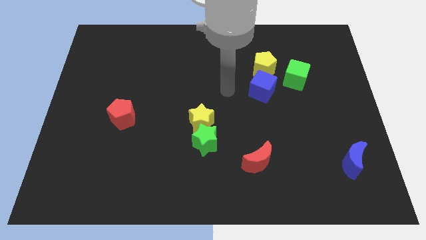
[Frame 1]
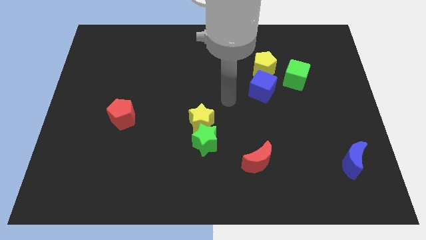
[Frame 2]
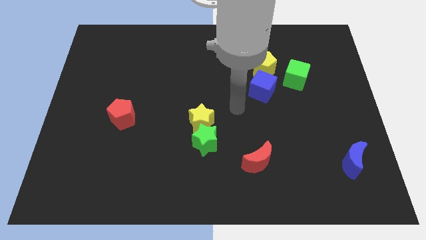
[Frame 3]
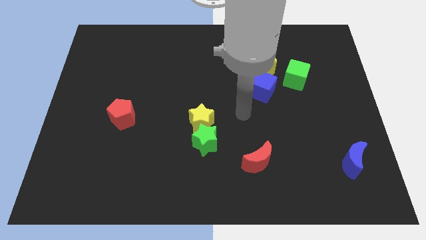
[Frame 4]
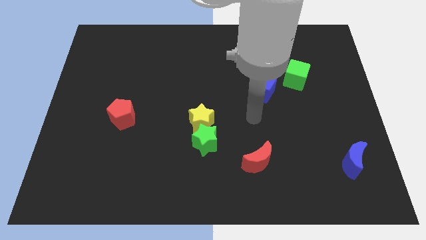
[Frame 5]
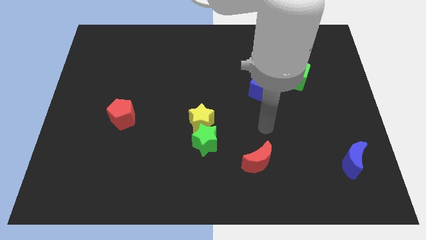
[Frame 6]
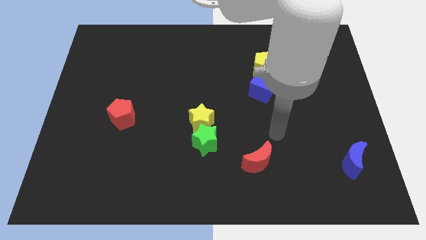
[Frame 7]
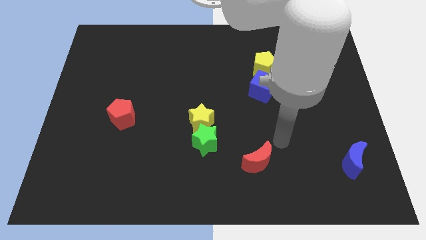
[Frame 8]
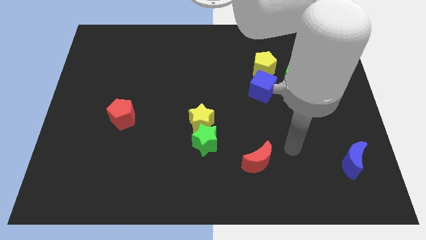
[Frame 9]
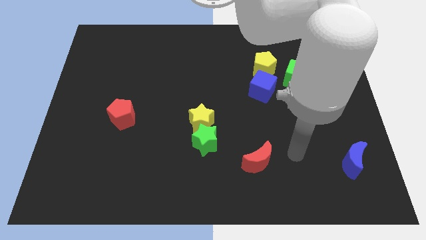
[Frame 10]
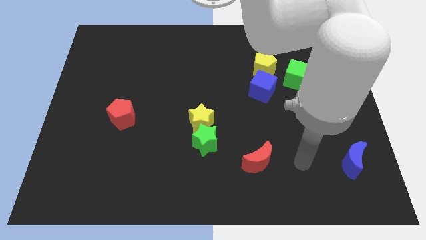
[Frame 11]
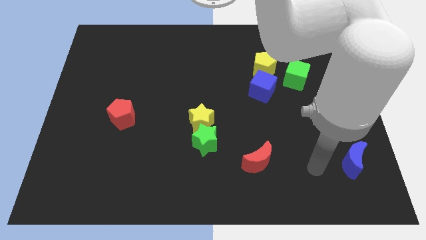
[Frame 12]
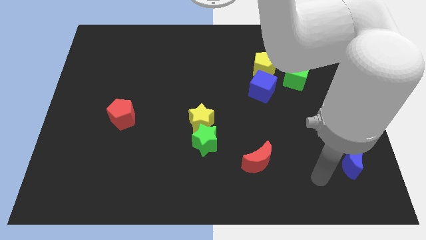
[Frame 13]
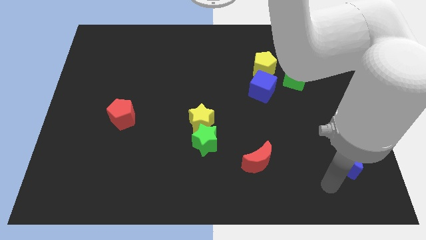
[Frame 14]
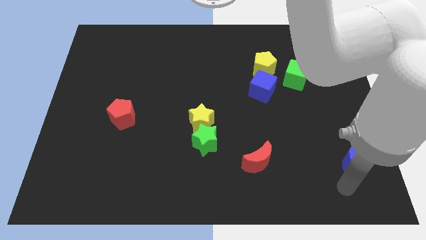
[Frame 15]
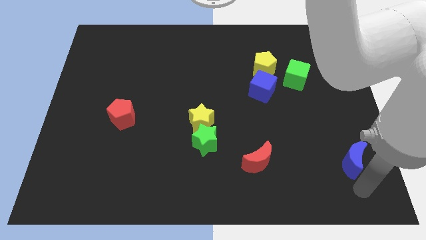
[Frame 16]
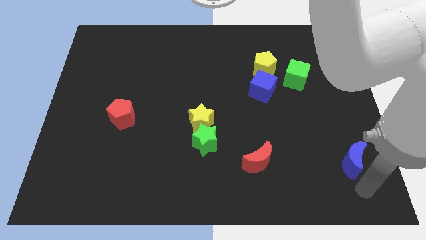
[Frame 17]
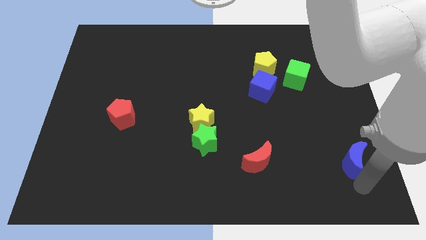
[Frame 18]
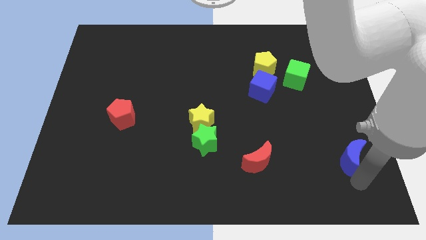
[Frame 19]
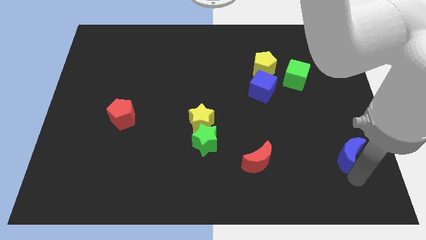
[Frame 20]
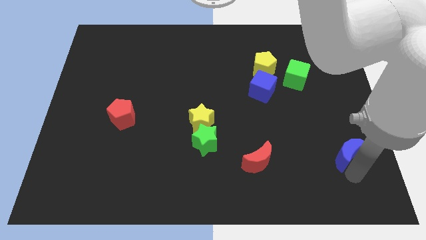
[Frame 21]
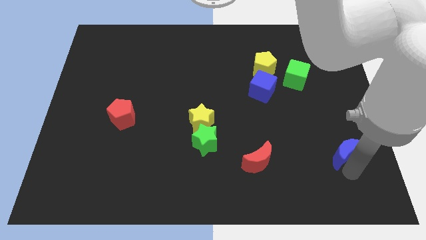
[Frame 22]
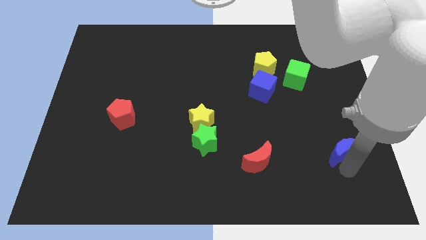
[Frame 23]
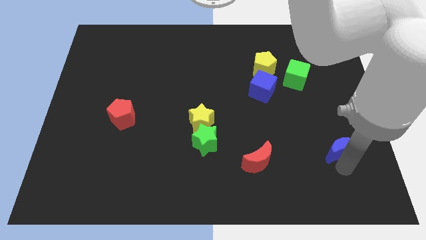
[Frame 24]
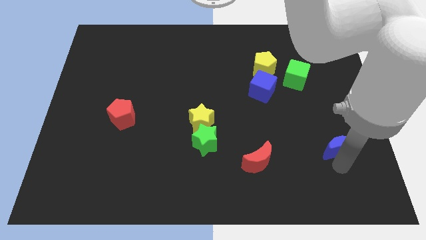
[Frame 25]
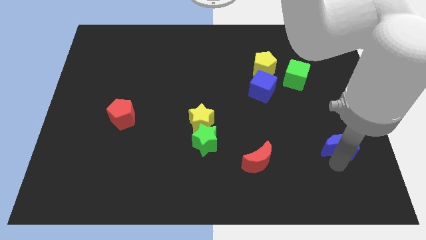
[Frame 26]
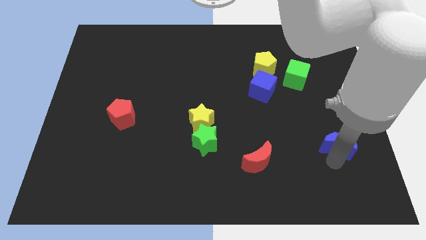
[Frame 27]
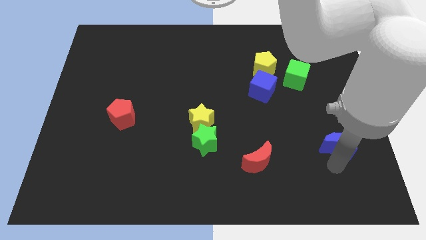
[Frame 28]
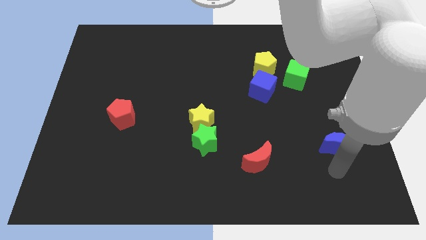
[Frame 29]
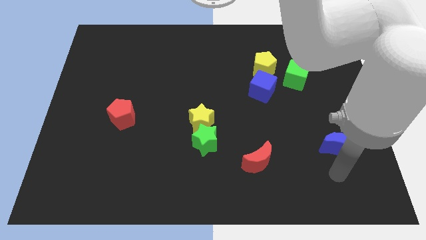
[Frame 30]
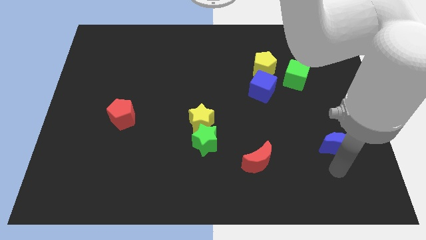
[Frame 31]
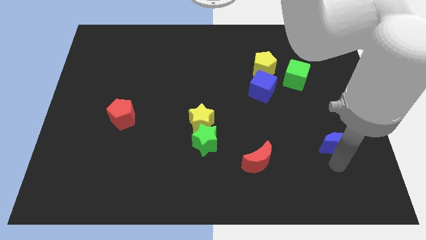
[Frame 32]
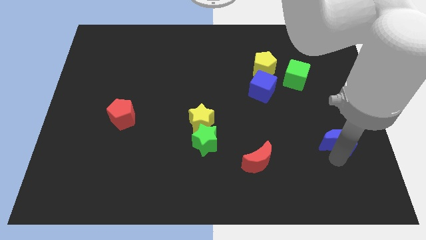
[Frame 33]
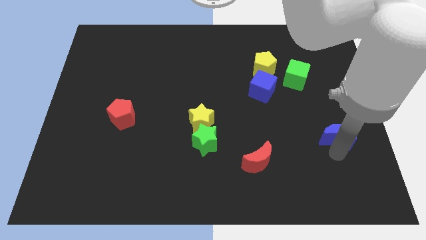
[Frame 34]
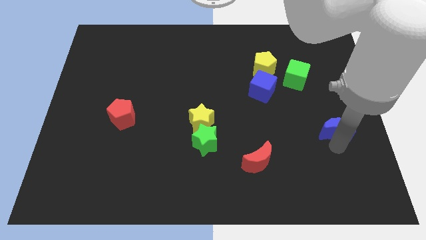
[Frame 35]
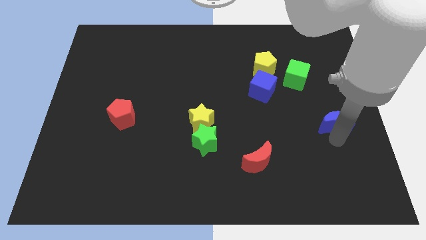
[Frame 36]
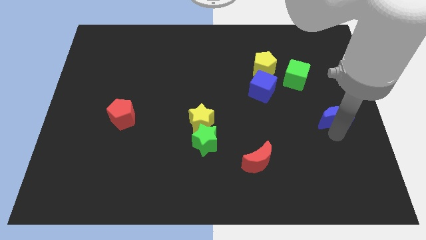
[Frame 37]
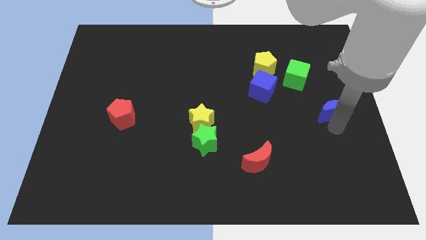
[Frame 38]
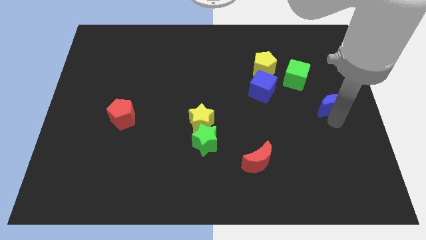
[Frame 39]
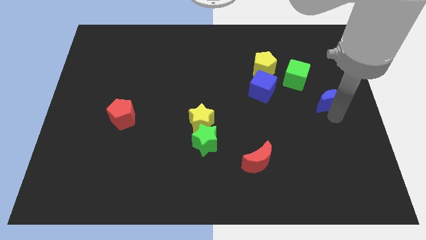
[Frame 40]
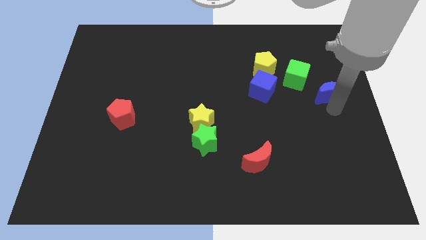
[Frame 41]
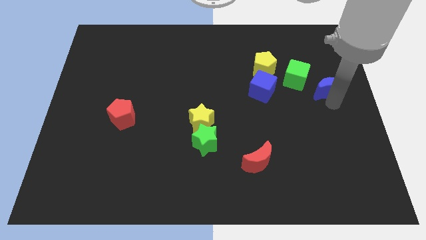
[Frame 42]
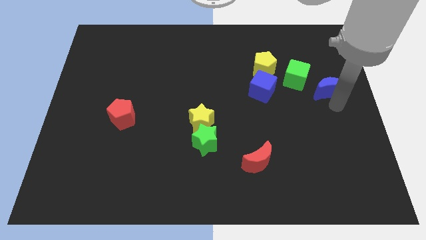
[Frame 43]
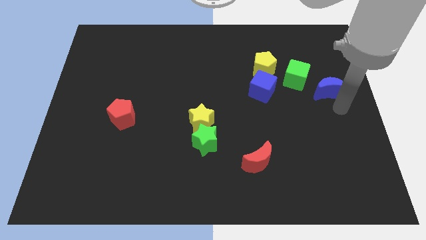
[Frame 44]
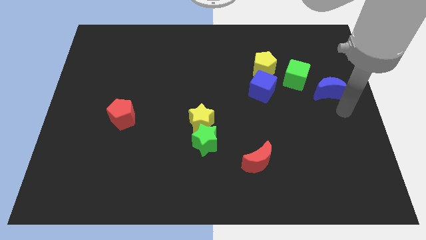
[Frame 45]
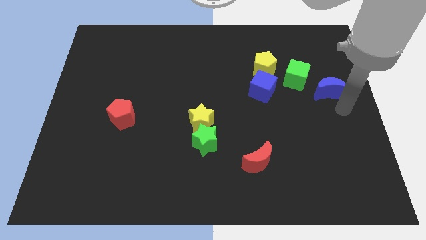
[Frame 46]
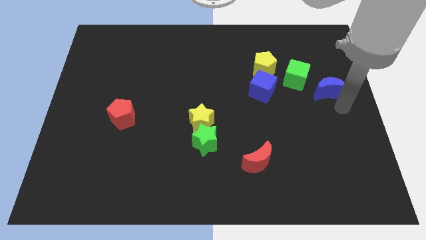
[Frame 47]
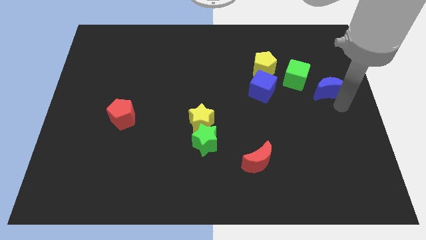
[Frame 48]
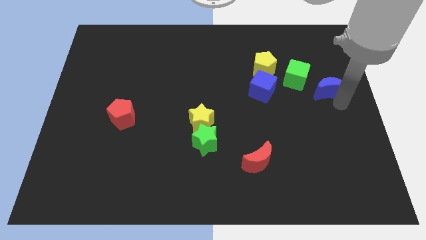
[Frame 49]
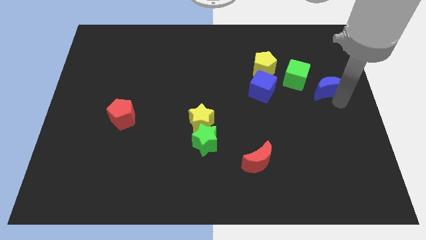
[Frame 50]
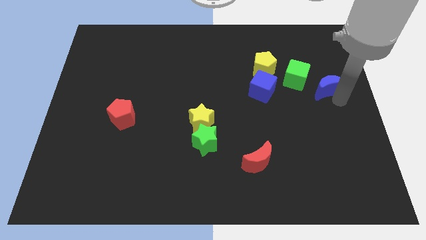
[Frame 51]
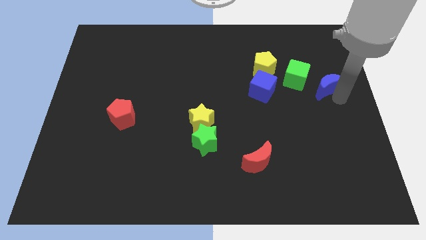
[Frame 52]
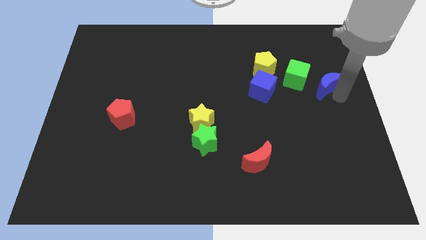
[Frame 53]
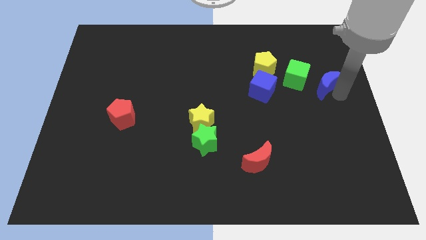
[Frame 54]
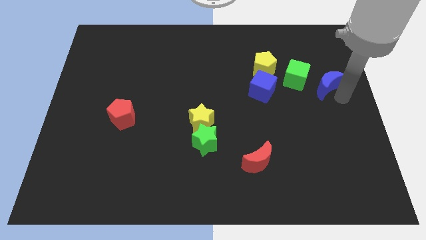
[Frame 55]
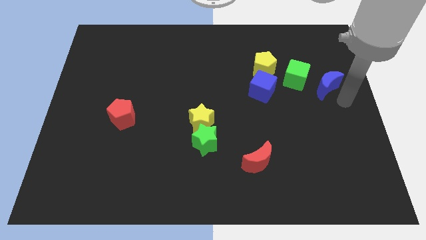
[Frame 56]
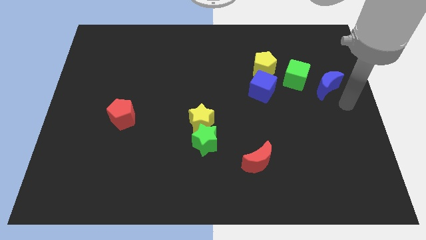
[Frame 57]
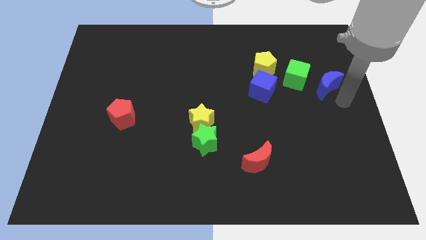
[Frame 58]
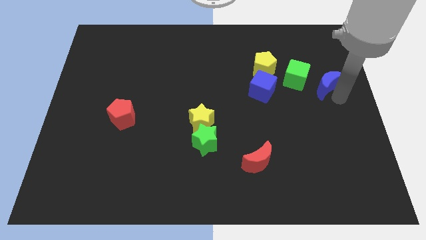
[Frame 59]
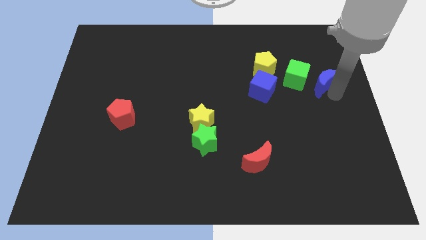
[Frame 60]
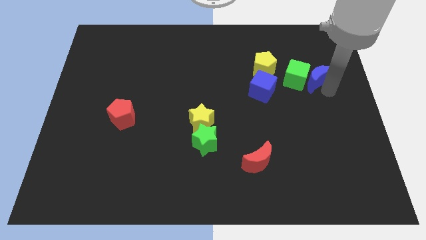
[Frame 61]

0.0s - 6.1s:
move the blue moon to the top right side of the green cube

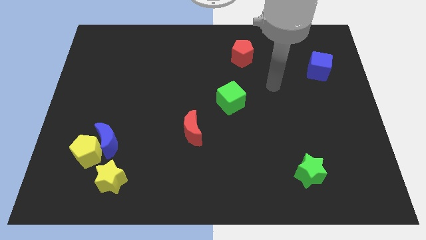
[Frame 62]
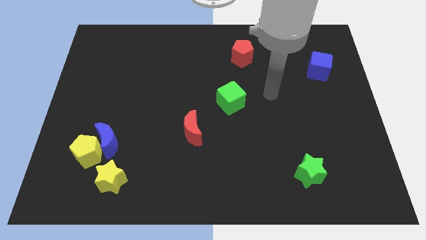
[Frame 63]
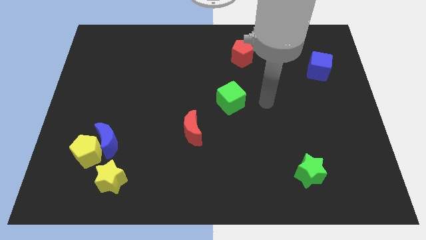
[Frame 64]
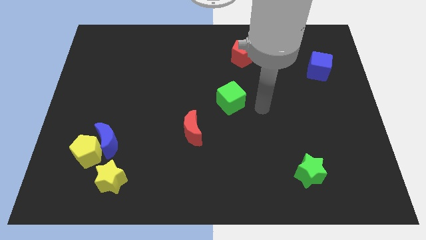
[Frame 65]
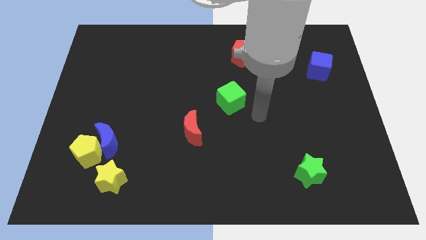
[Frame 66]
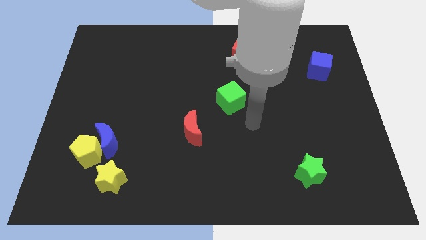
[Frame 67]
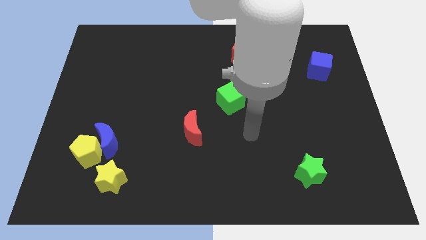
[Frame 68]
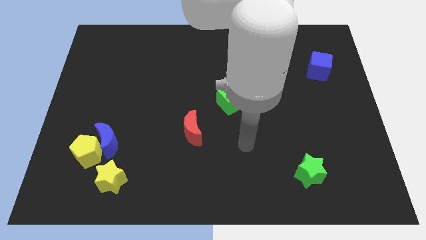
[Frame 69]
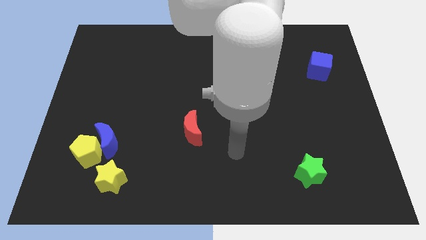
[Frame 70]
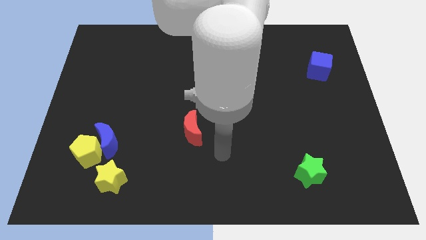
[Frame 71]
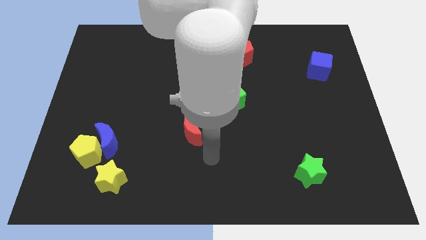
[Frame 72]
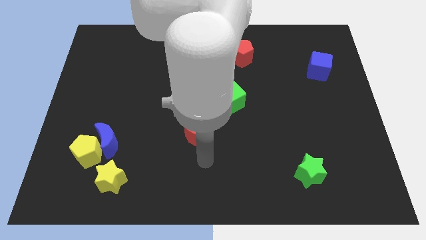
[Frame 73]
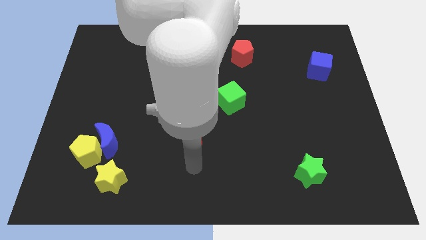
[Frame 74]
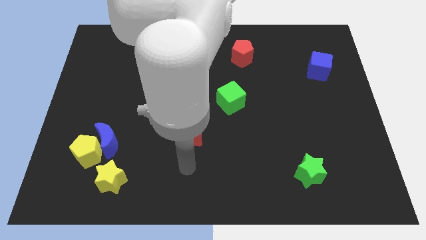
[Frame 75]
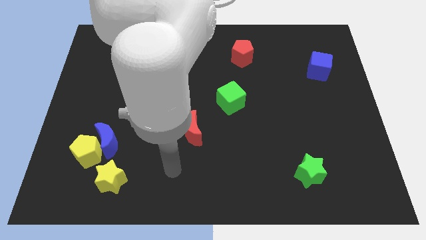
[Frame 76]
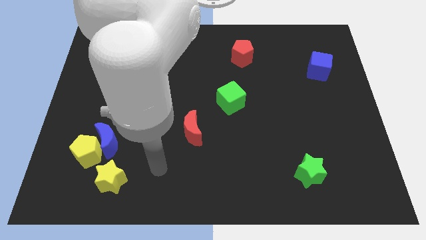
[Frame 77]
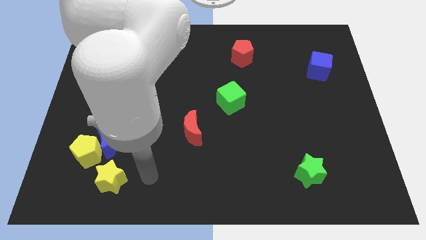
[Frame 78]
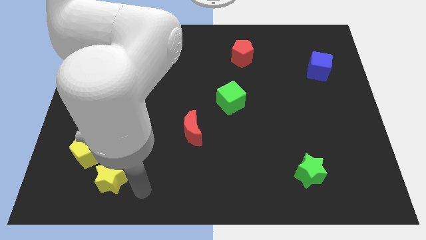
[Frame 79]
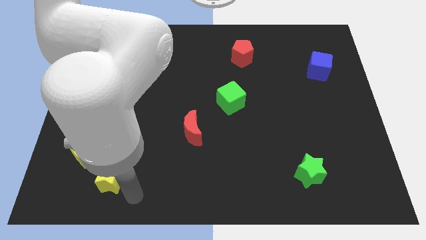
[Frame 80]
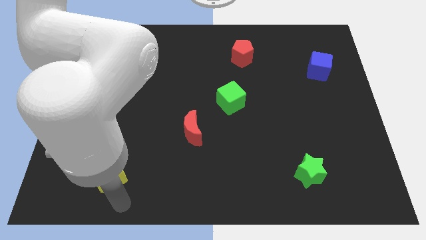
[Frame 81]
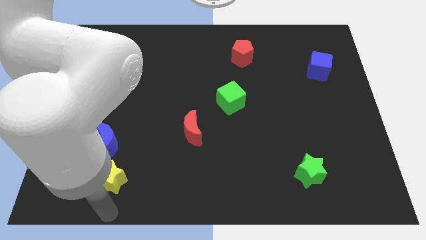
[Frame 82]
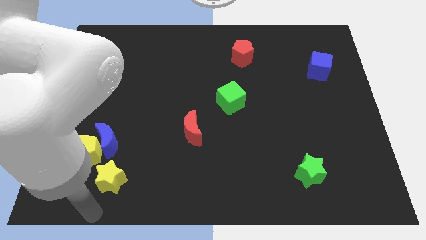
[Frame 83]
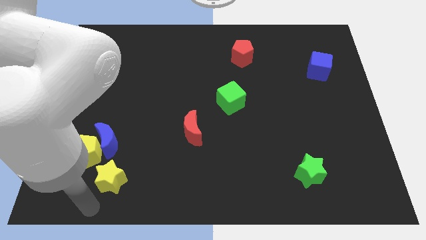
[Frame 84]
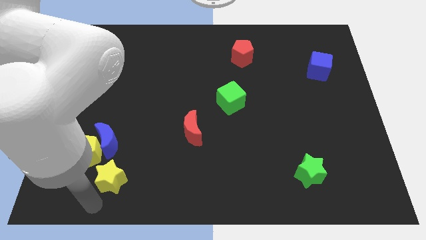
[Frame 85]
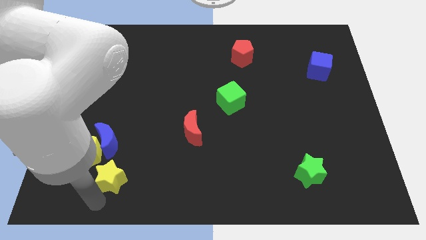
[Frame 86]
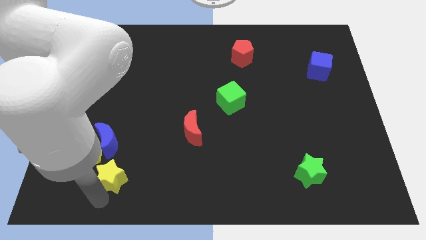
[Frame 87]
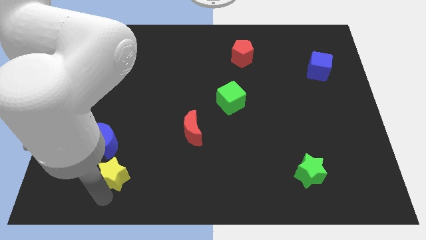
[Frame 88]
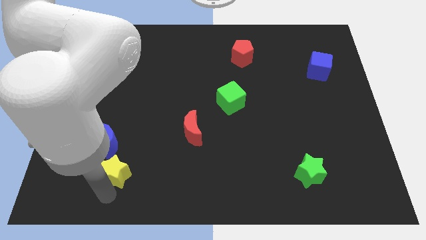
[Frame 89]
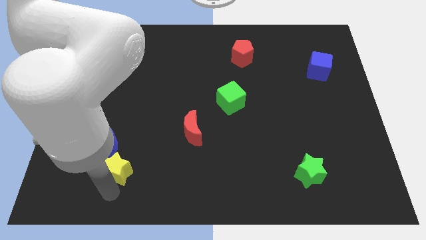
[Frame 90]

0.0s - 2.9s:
put the yellow star right of the yellow pentagon
